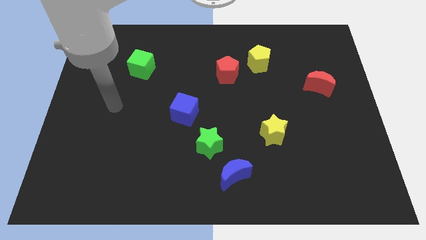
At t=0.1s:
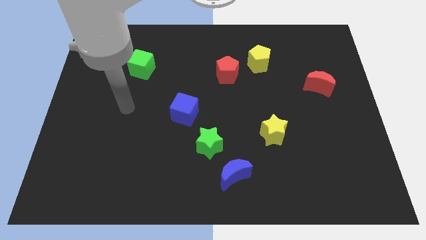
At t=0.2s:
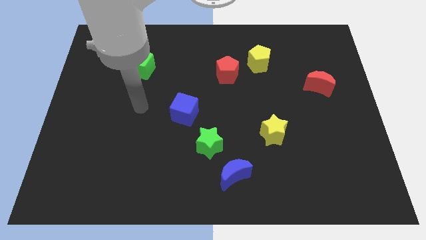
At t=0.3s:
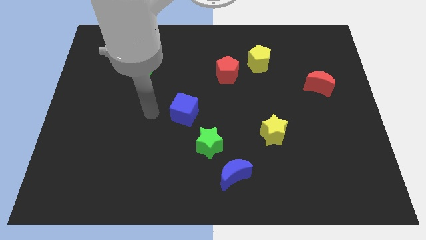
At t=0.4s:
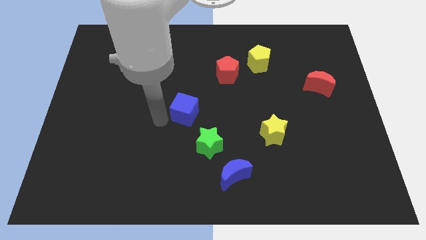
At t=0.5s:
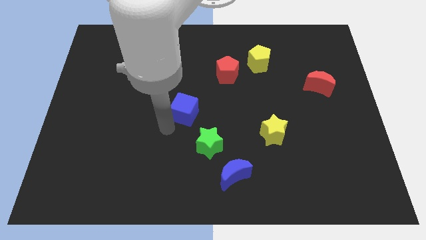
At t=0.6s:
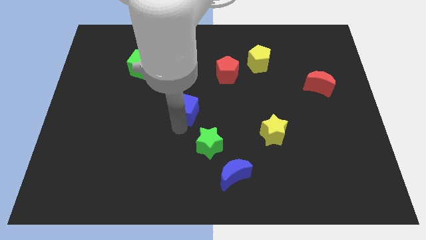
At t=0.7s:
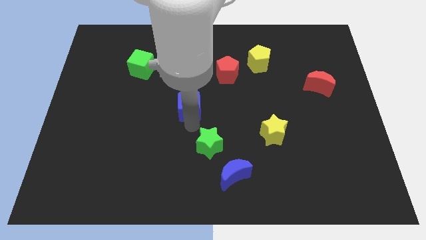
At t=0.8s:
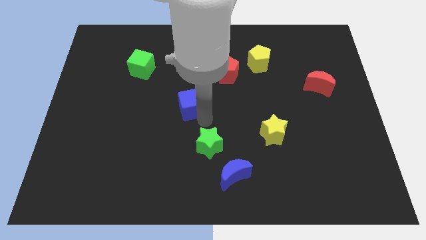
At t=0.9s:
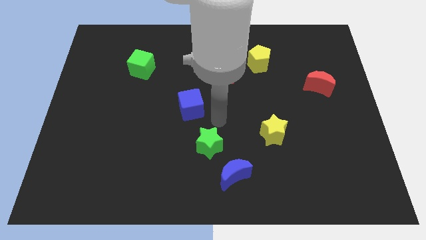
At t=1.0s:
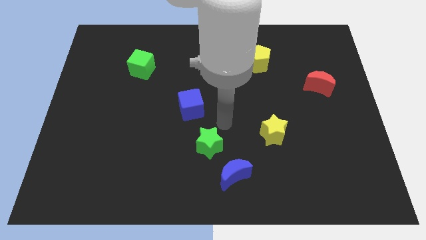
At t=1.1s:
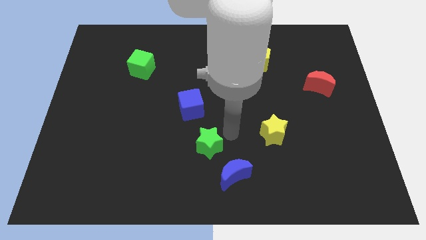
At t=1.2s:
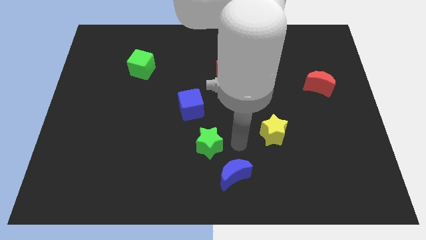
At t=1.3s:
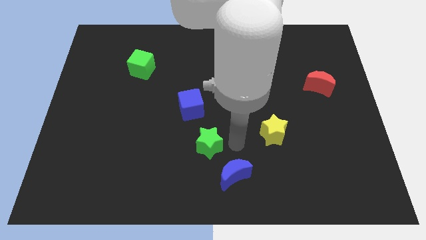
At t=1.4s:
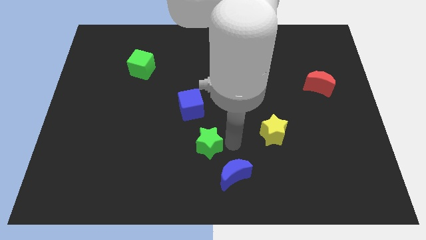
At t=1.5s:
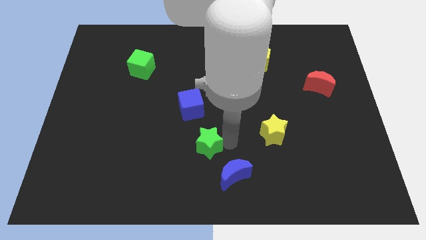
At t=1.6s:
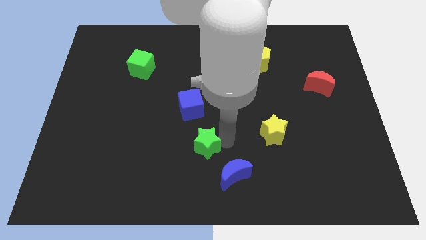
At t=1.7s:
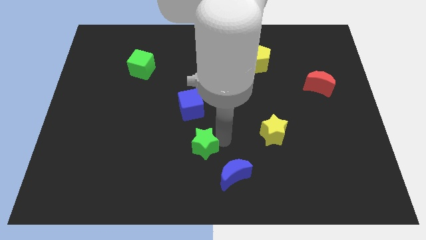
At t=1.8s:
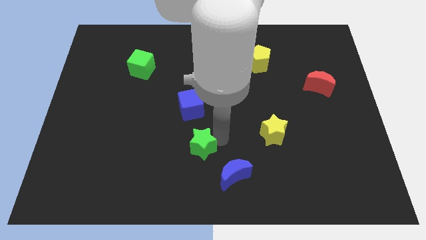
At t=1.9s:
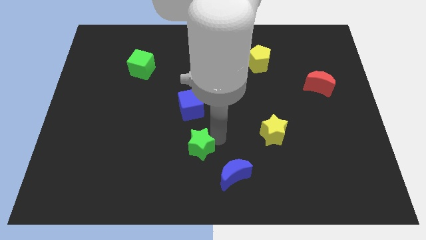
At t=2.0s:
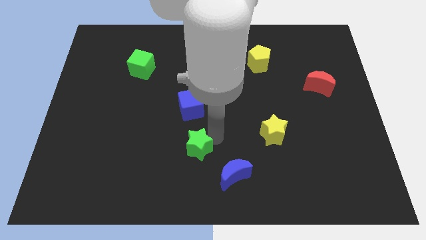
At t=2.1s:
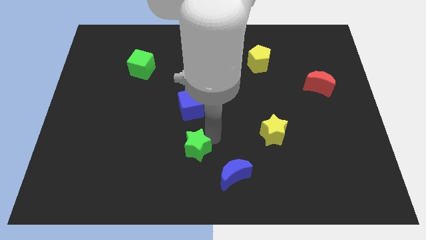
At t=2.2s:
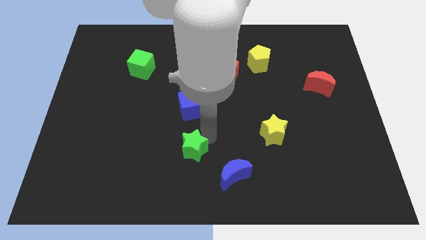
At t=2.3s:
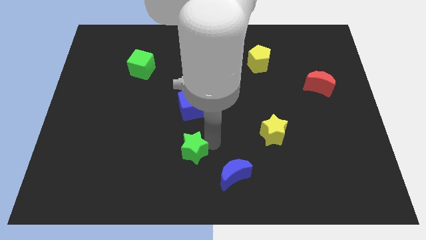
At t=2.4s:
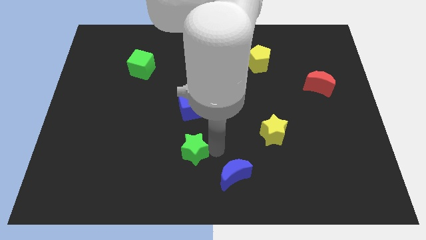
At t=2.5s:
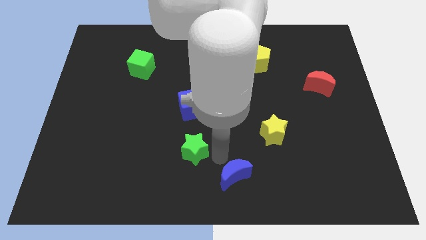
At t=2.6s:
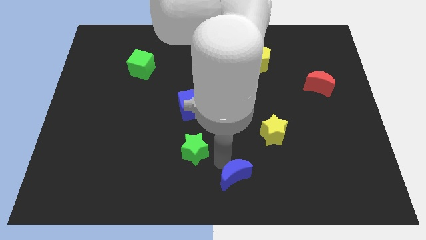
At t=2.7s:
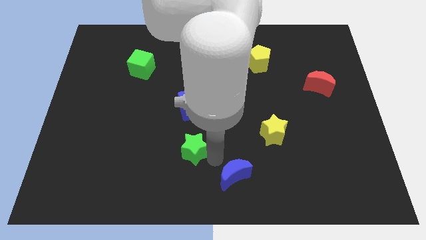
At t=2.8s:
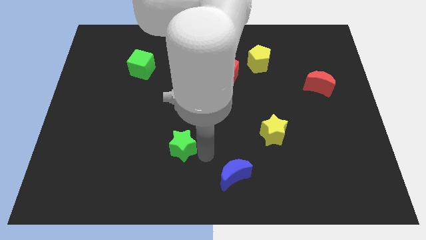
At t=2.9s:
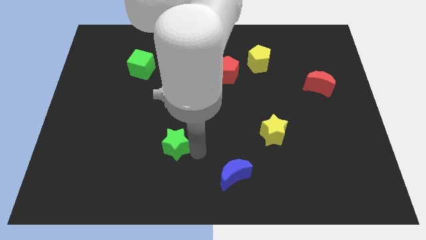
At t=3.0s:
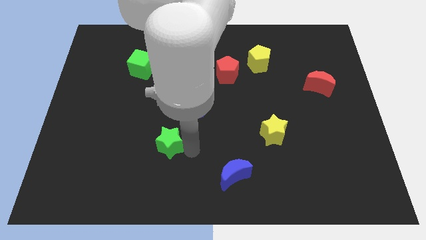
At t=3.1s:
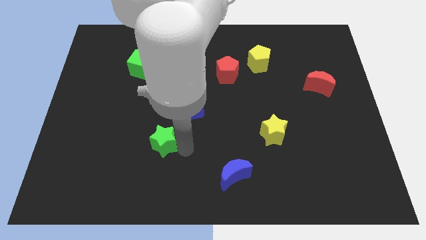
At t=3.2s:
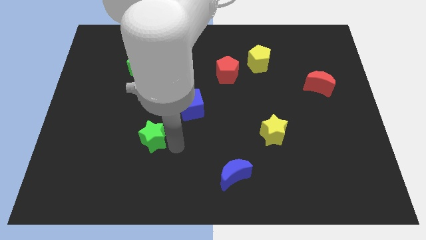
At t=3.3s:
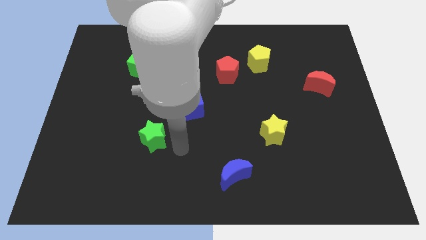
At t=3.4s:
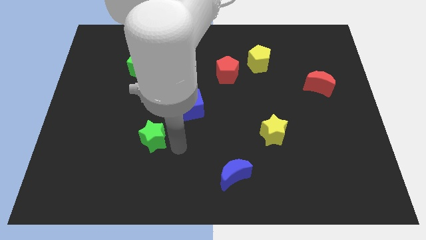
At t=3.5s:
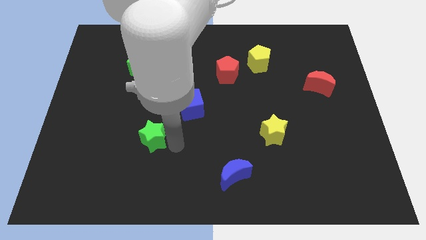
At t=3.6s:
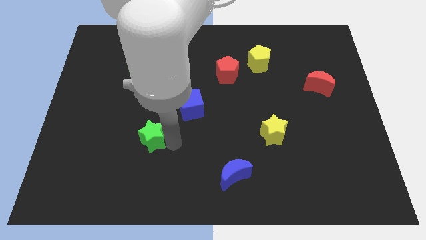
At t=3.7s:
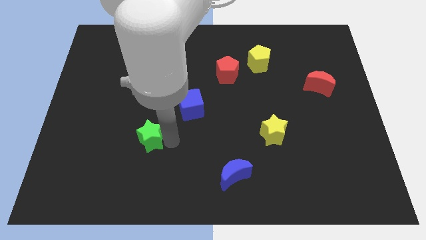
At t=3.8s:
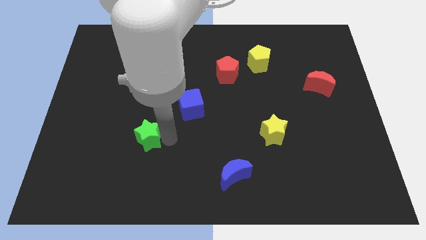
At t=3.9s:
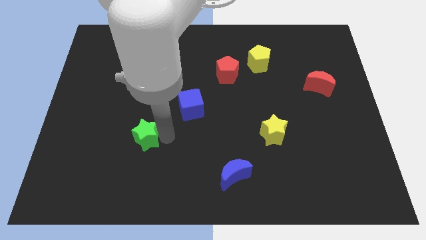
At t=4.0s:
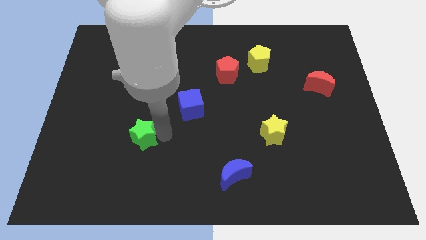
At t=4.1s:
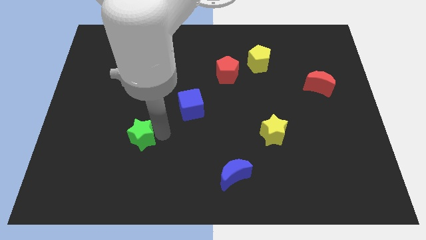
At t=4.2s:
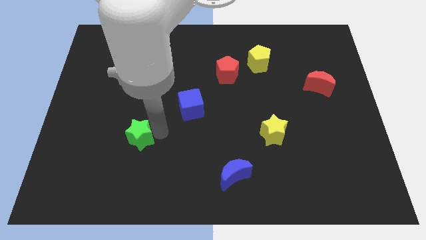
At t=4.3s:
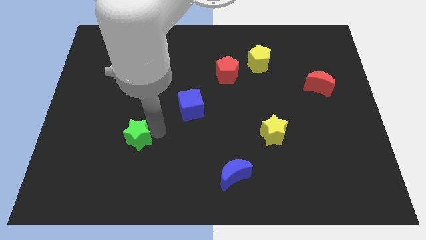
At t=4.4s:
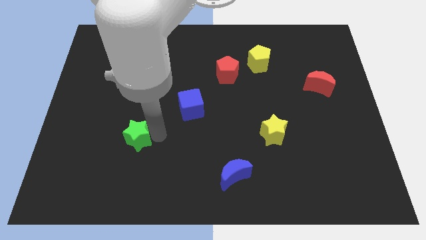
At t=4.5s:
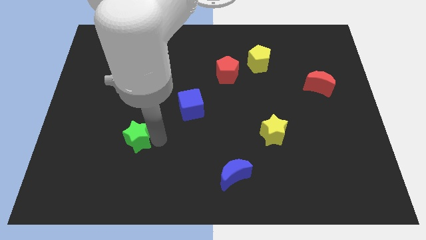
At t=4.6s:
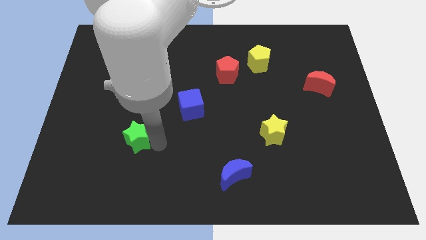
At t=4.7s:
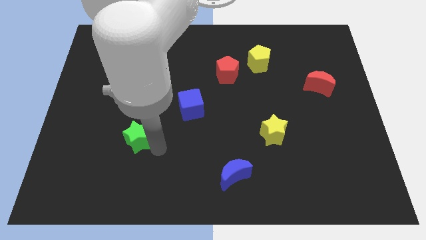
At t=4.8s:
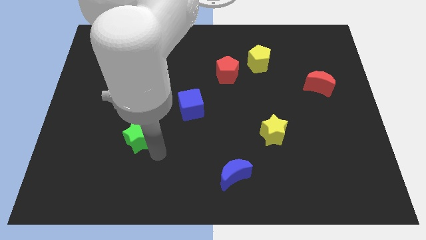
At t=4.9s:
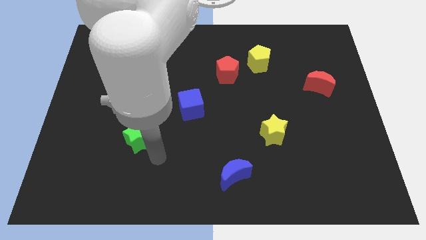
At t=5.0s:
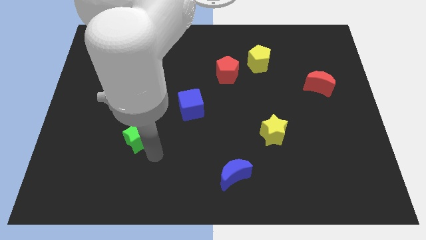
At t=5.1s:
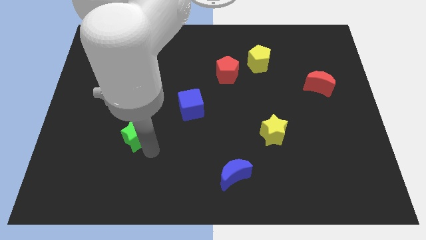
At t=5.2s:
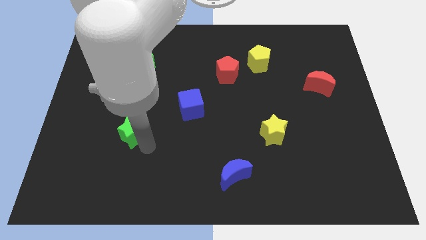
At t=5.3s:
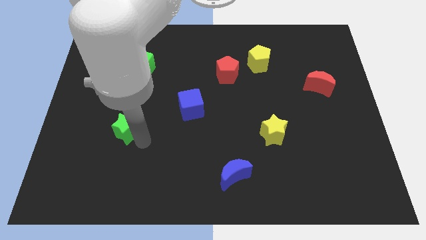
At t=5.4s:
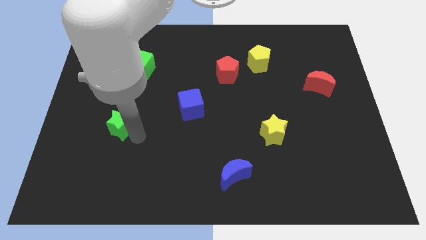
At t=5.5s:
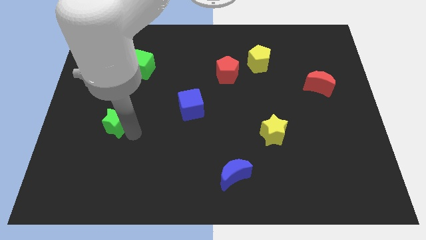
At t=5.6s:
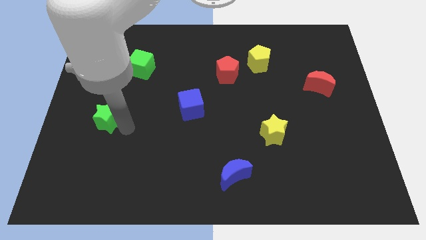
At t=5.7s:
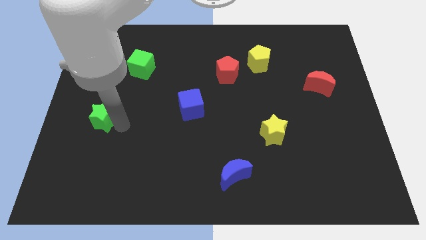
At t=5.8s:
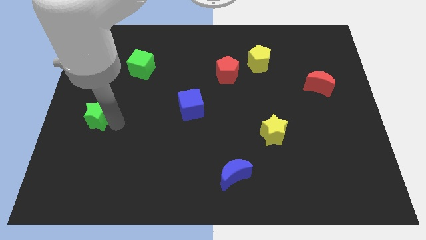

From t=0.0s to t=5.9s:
put the green star to the left side of the board
